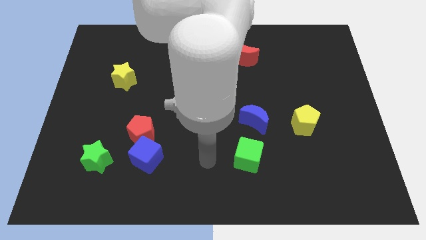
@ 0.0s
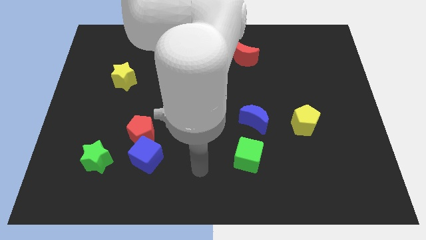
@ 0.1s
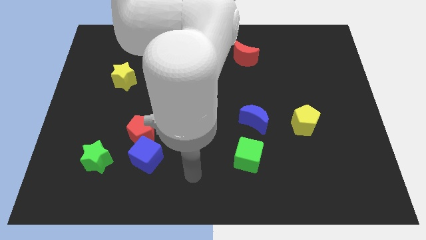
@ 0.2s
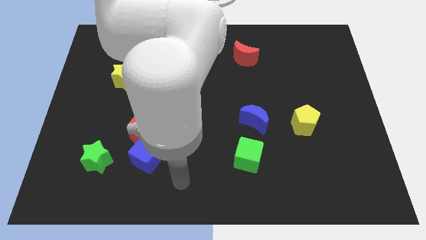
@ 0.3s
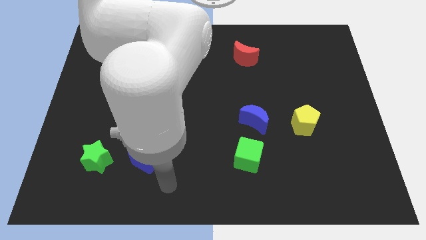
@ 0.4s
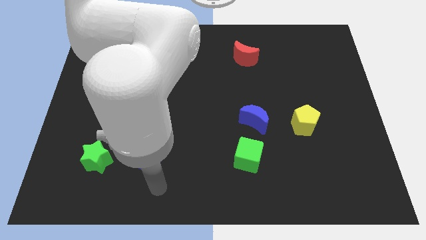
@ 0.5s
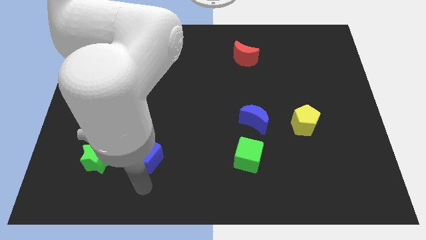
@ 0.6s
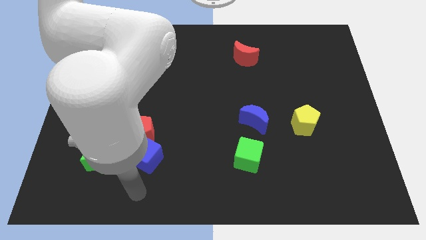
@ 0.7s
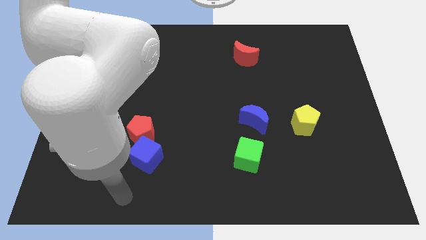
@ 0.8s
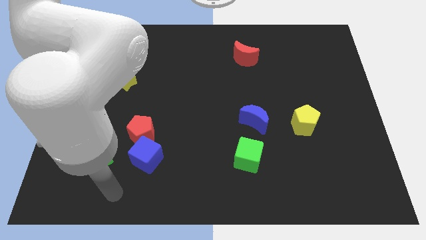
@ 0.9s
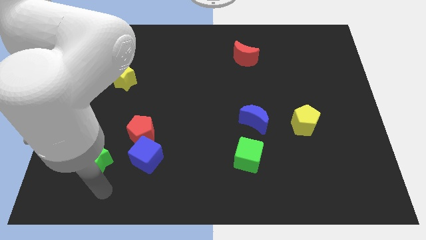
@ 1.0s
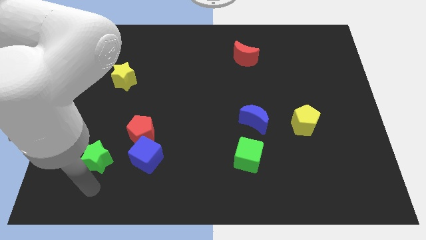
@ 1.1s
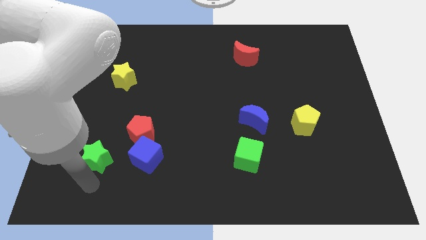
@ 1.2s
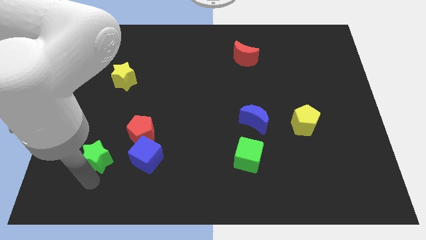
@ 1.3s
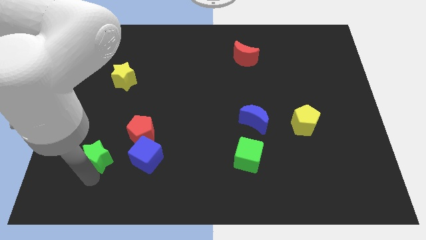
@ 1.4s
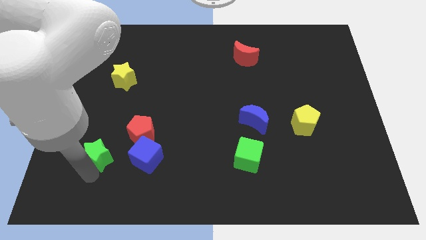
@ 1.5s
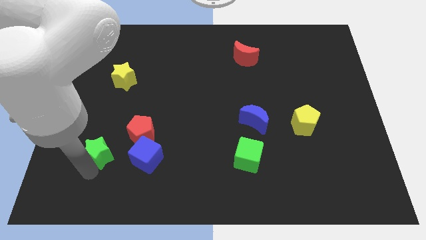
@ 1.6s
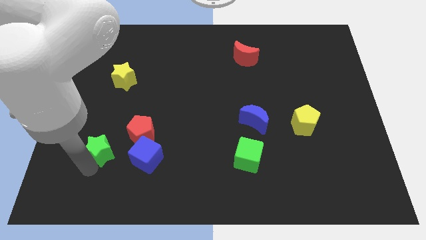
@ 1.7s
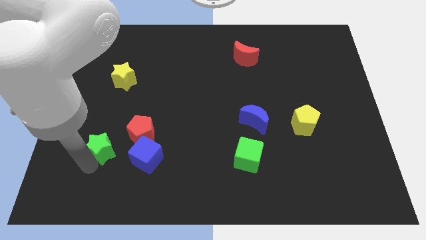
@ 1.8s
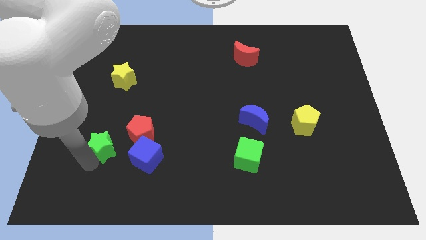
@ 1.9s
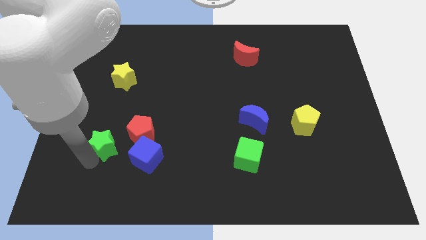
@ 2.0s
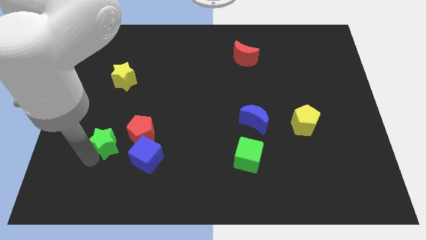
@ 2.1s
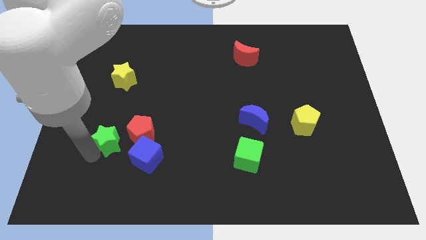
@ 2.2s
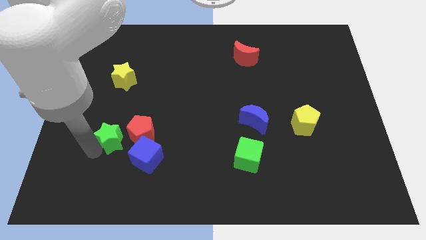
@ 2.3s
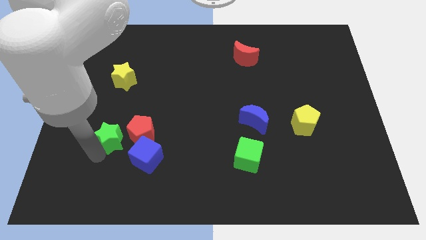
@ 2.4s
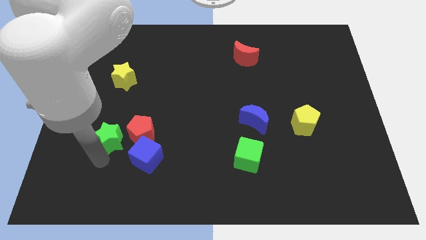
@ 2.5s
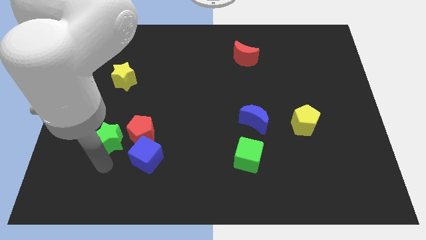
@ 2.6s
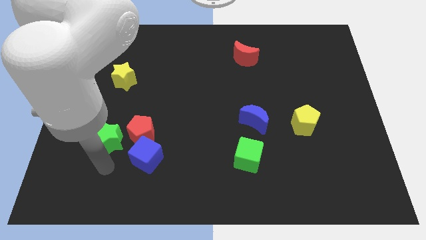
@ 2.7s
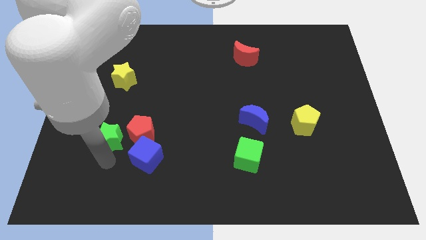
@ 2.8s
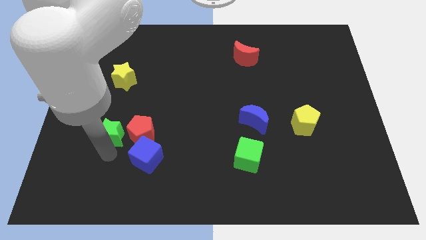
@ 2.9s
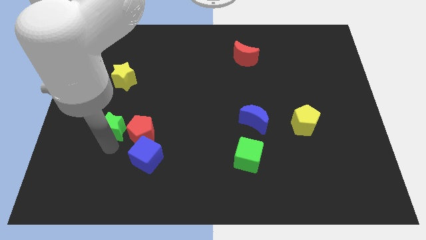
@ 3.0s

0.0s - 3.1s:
slightly slide the green star up

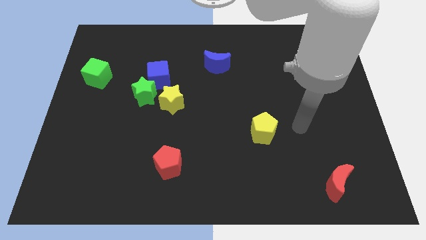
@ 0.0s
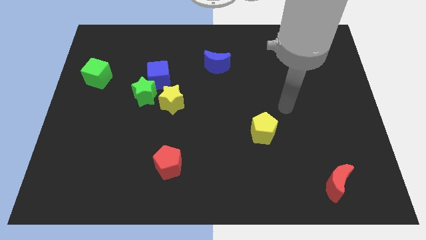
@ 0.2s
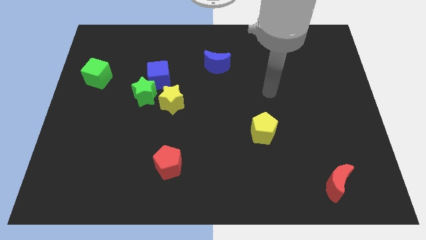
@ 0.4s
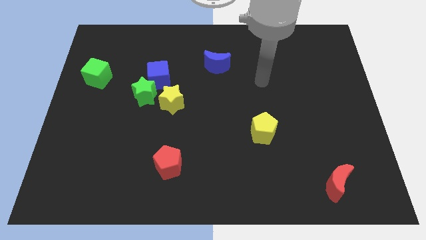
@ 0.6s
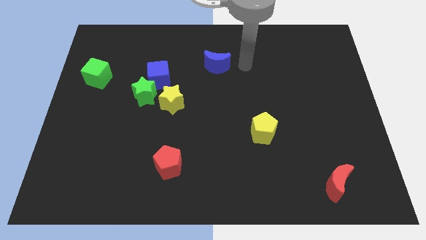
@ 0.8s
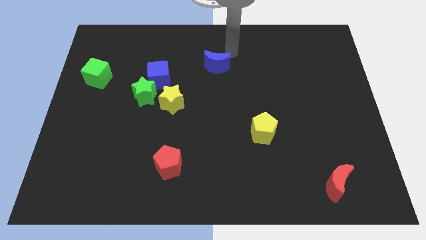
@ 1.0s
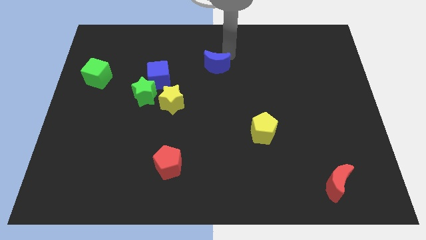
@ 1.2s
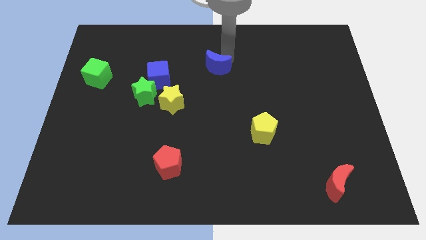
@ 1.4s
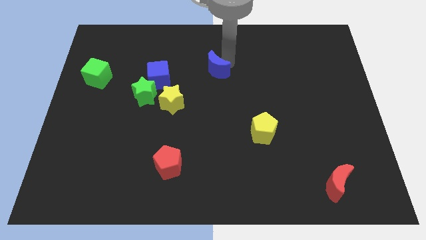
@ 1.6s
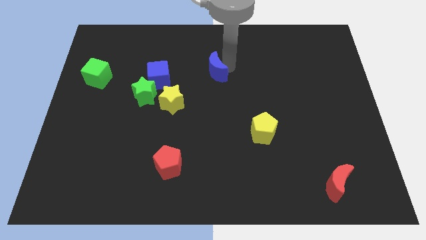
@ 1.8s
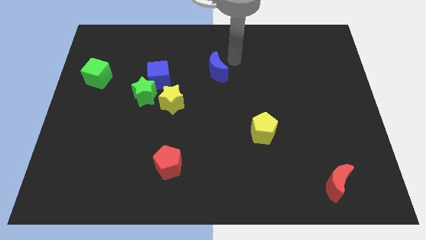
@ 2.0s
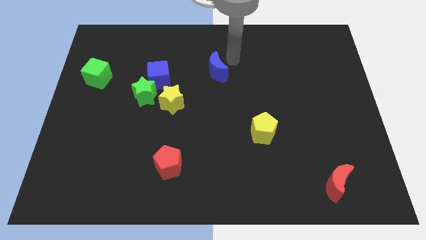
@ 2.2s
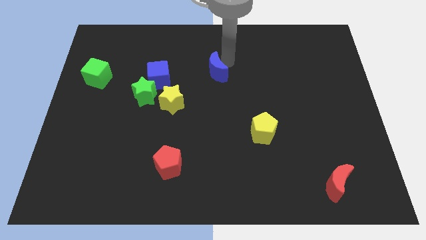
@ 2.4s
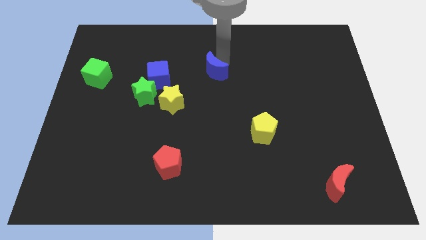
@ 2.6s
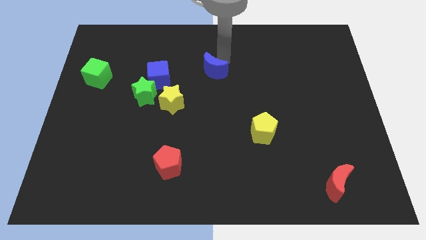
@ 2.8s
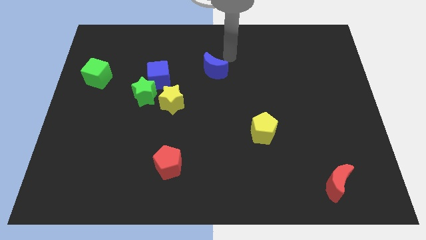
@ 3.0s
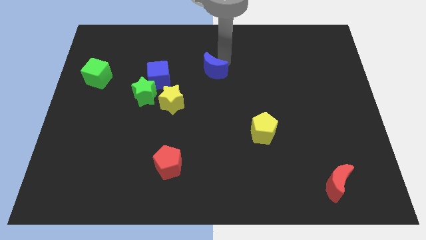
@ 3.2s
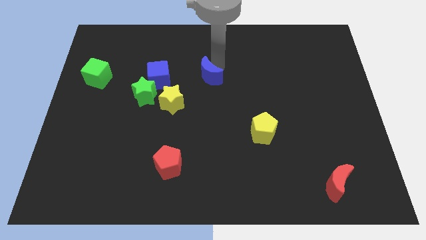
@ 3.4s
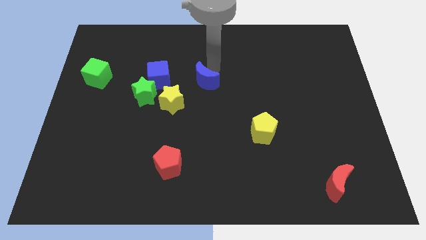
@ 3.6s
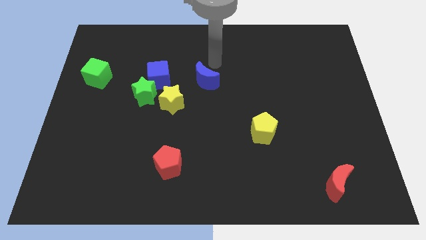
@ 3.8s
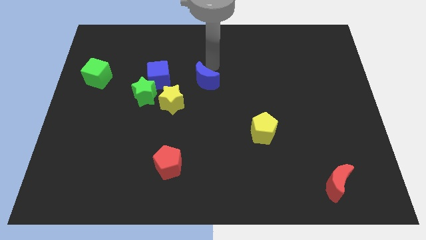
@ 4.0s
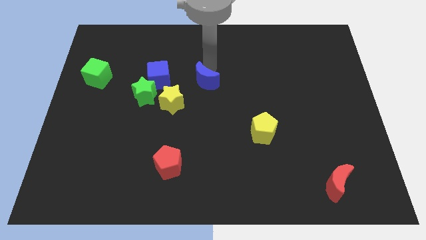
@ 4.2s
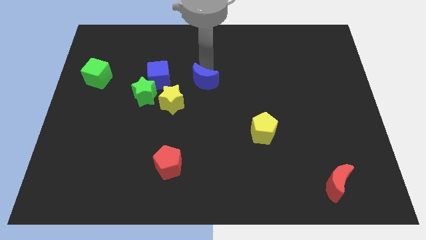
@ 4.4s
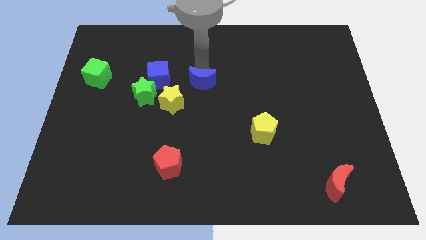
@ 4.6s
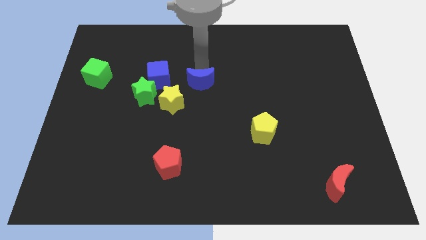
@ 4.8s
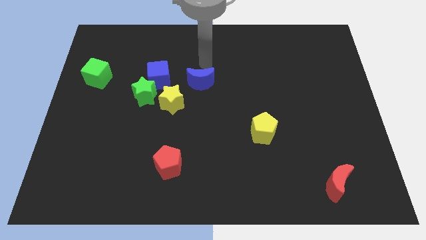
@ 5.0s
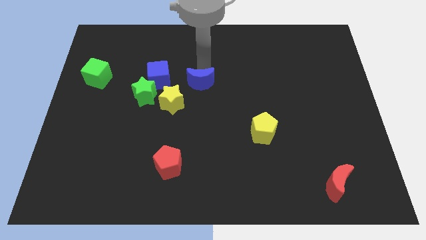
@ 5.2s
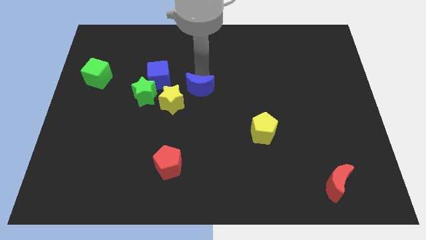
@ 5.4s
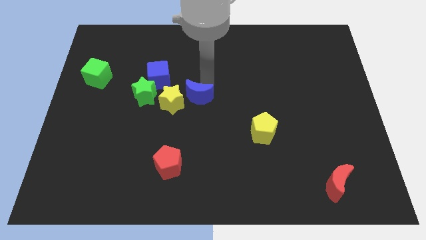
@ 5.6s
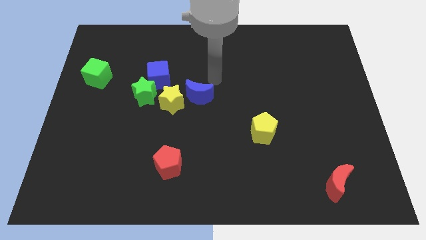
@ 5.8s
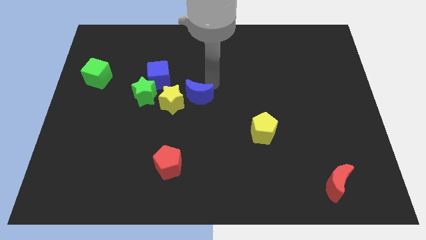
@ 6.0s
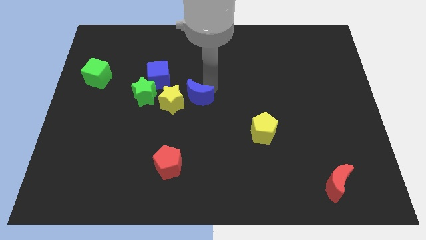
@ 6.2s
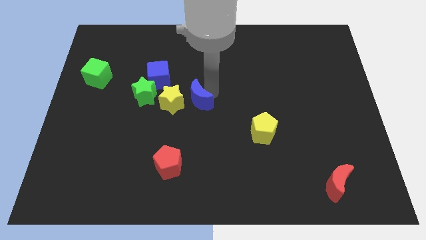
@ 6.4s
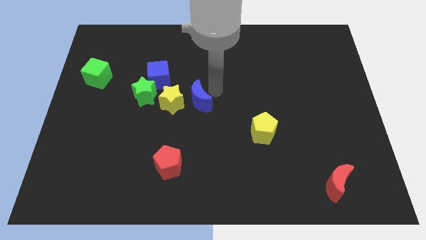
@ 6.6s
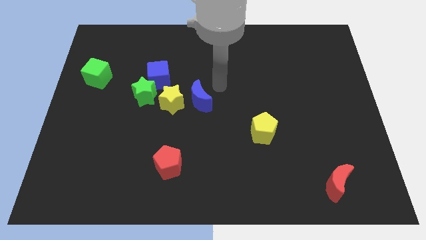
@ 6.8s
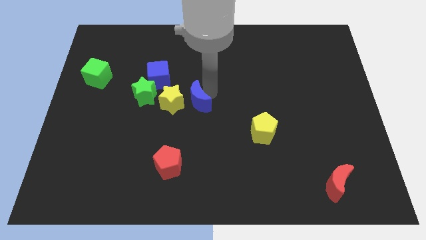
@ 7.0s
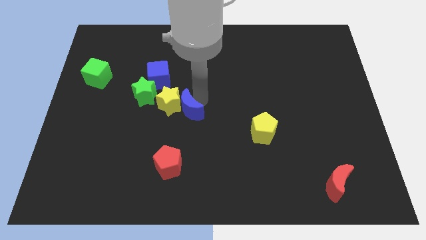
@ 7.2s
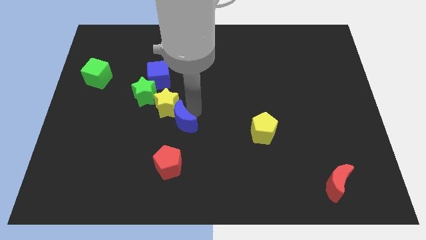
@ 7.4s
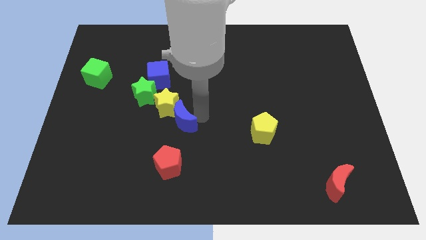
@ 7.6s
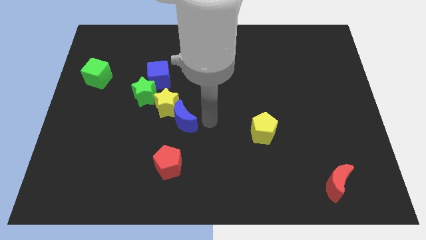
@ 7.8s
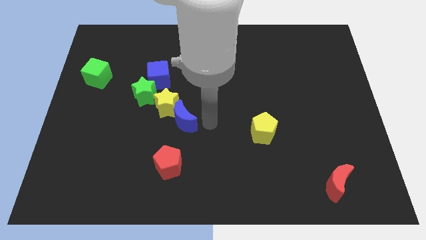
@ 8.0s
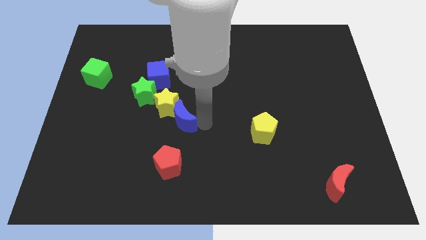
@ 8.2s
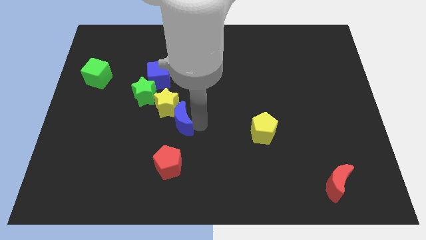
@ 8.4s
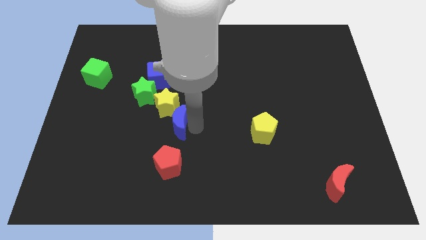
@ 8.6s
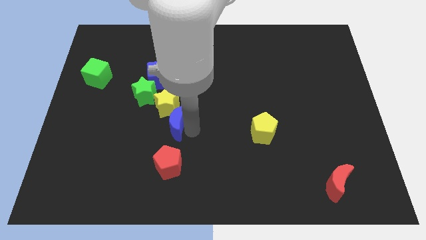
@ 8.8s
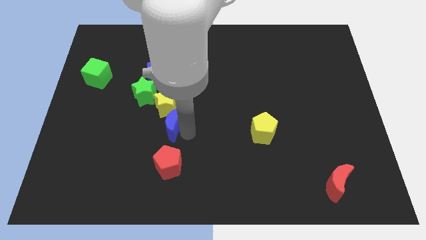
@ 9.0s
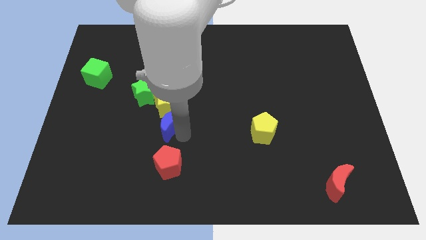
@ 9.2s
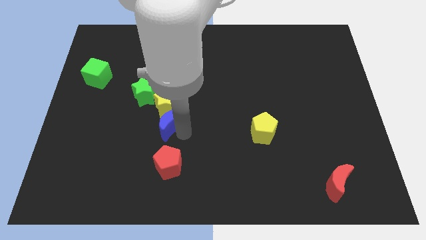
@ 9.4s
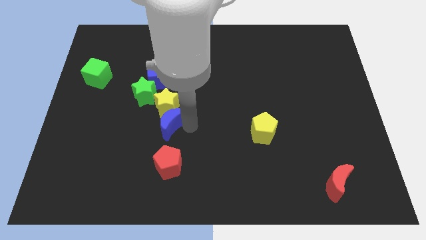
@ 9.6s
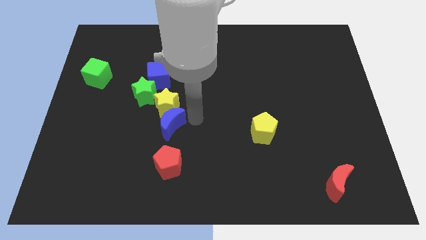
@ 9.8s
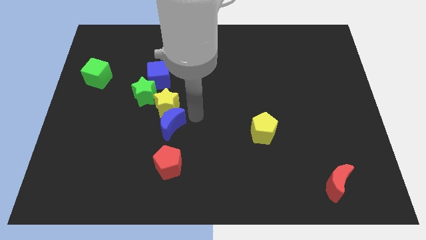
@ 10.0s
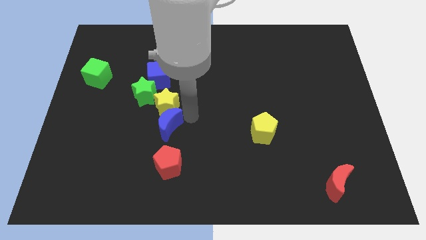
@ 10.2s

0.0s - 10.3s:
slide the blue moon down and then left

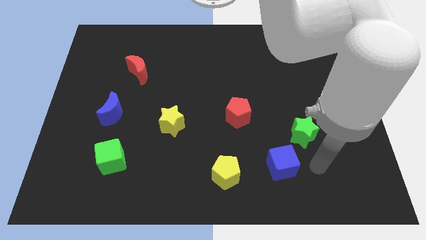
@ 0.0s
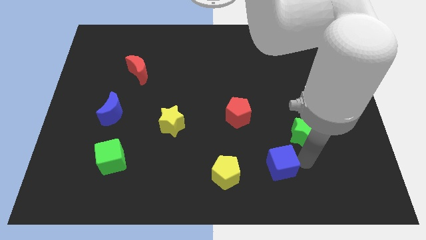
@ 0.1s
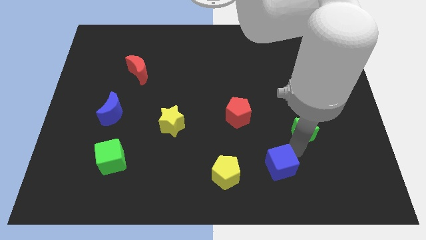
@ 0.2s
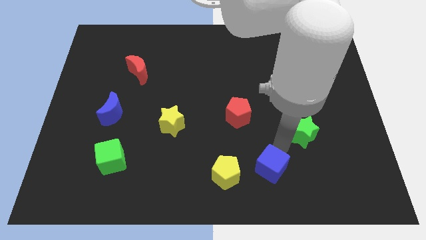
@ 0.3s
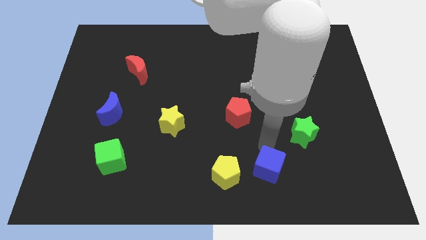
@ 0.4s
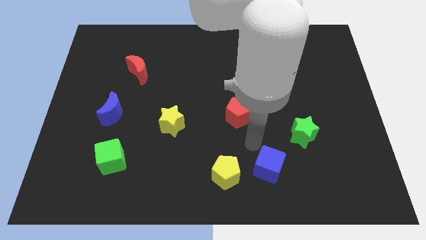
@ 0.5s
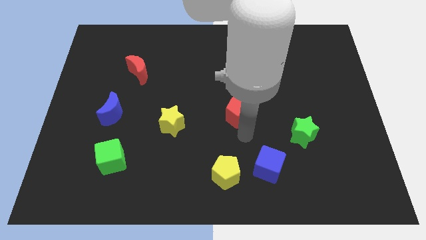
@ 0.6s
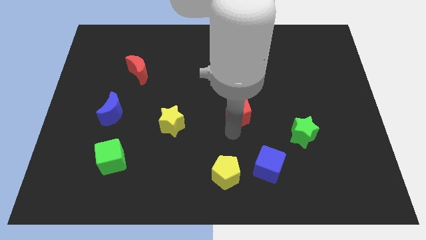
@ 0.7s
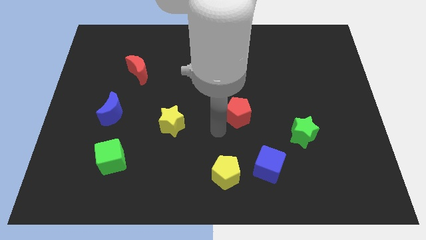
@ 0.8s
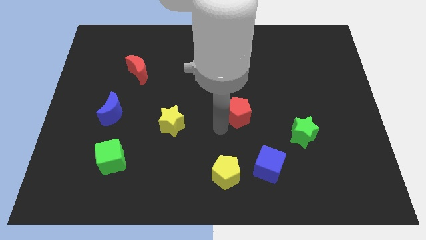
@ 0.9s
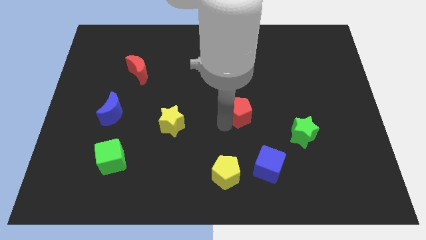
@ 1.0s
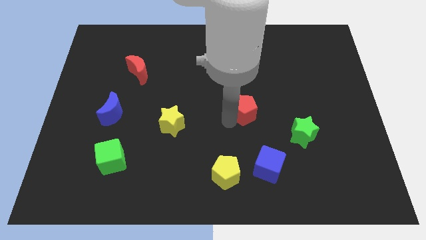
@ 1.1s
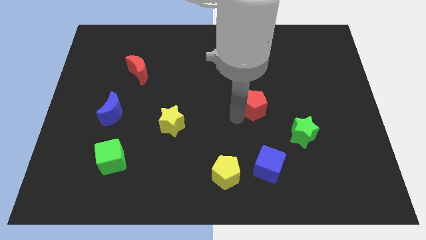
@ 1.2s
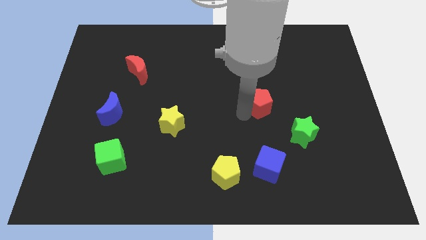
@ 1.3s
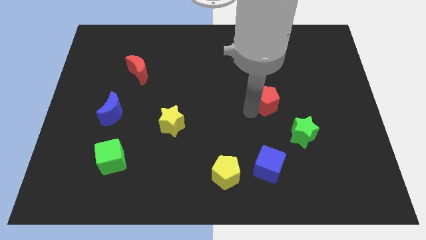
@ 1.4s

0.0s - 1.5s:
slightly move the red pentagon diagonally upwards and to the right
